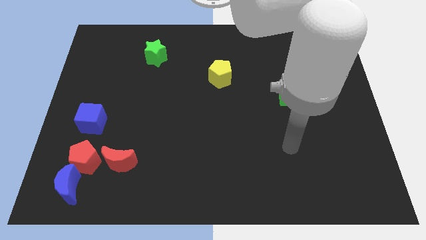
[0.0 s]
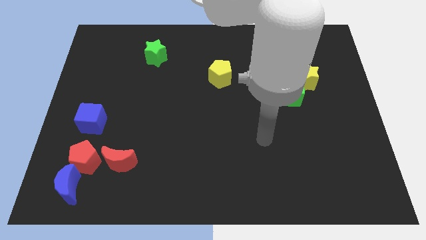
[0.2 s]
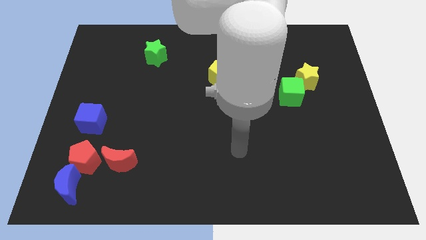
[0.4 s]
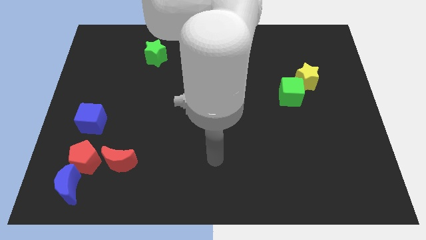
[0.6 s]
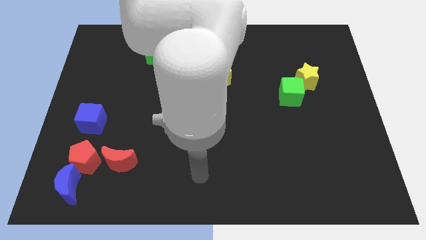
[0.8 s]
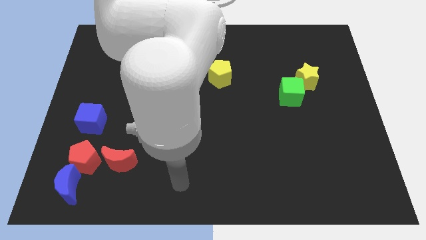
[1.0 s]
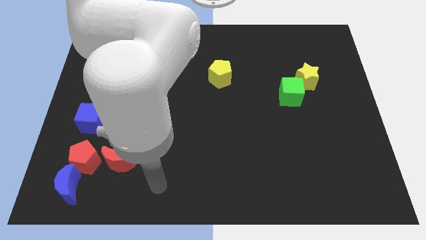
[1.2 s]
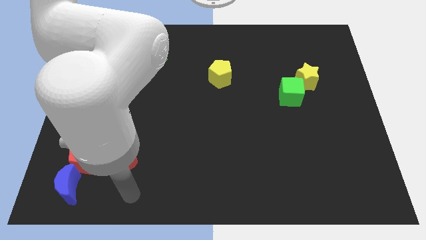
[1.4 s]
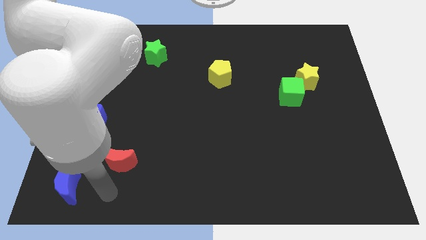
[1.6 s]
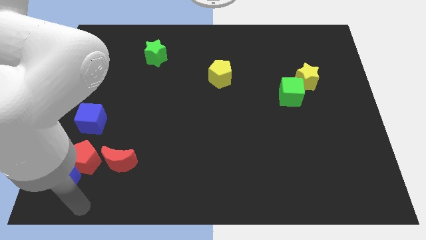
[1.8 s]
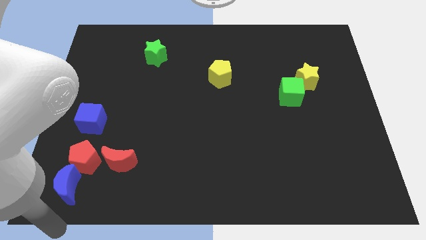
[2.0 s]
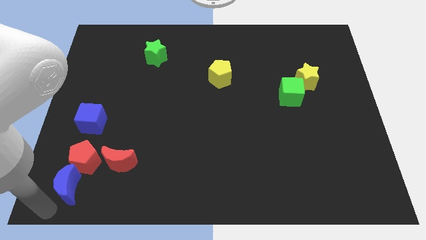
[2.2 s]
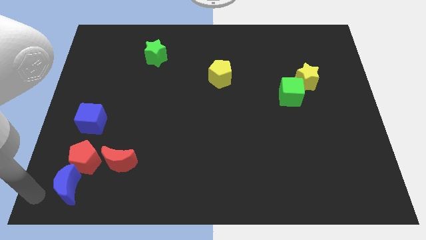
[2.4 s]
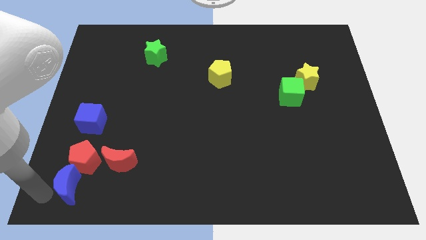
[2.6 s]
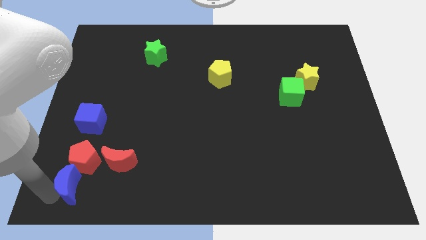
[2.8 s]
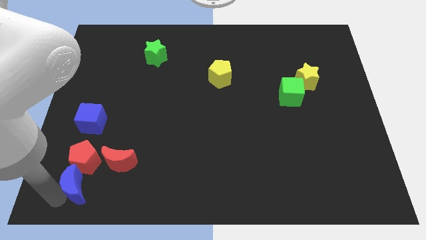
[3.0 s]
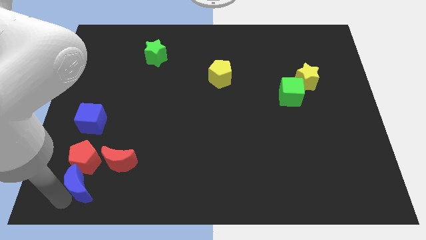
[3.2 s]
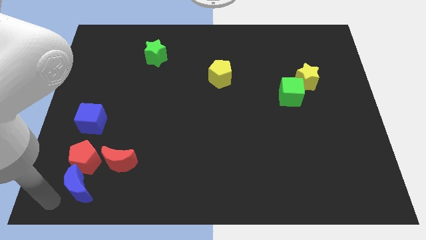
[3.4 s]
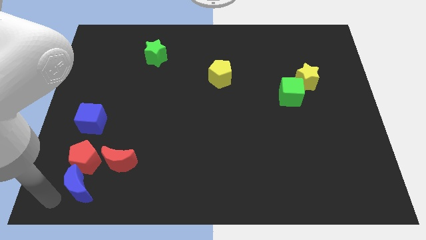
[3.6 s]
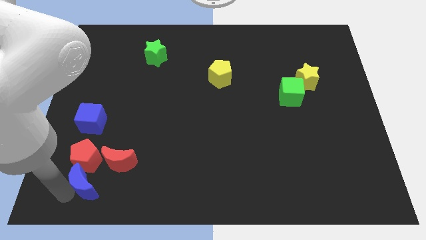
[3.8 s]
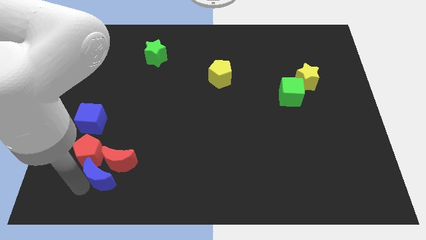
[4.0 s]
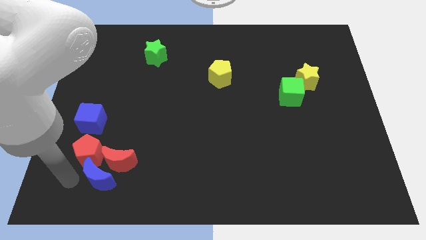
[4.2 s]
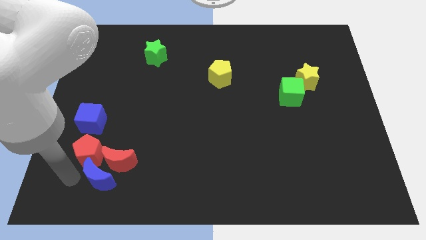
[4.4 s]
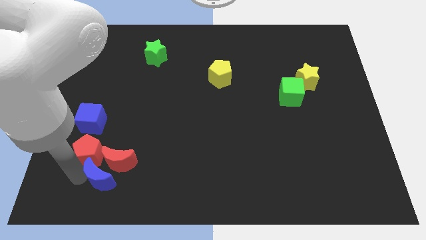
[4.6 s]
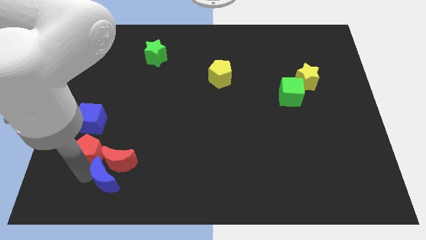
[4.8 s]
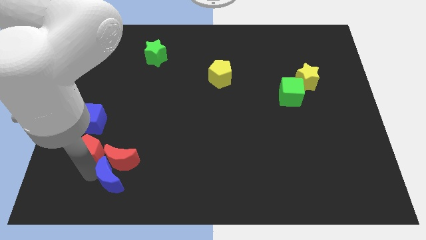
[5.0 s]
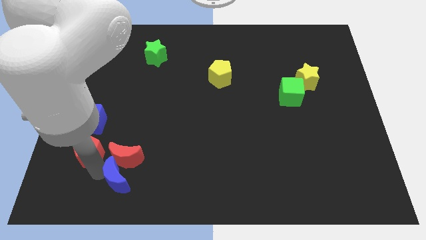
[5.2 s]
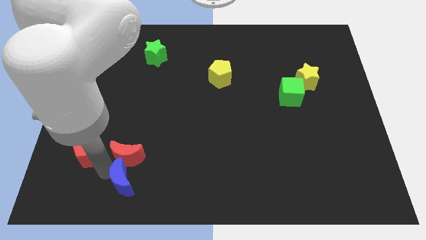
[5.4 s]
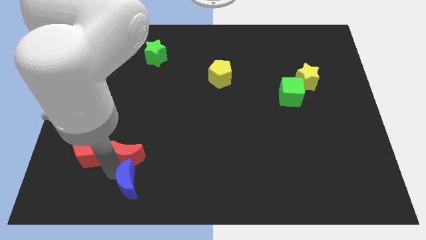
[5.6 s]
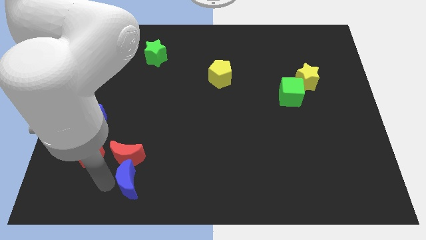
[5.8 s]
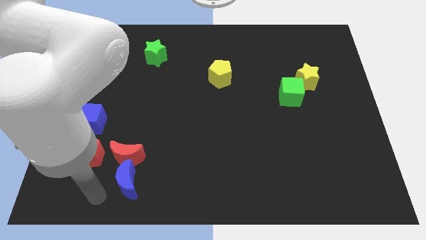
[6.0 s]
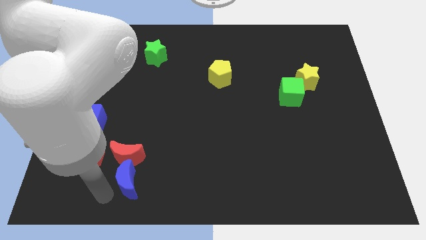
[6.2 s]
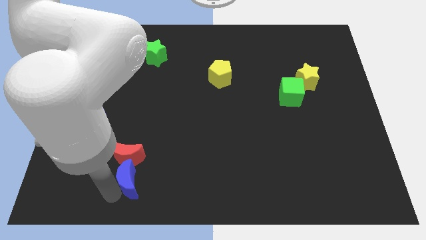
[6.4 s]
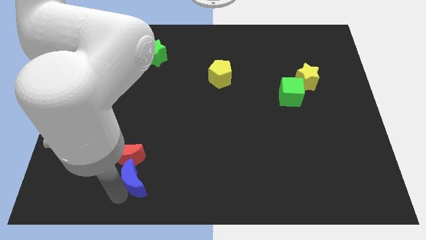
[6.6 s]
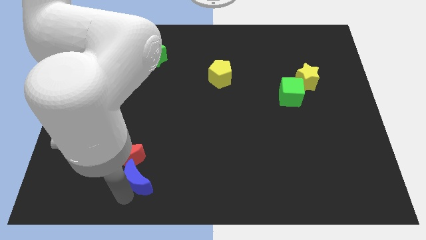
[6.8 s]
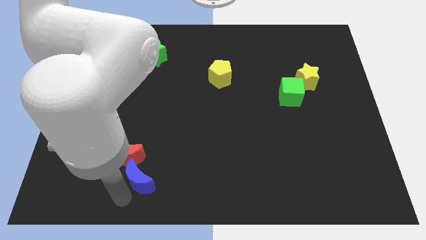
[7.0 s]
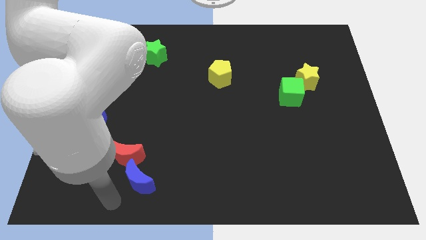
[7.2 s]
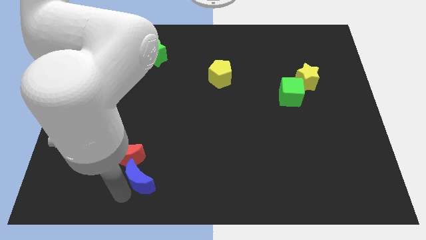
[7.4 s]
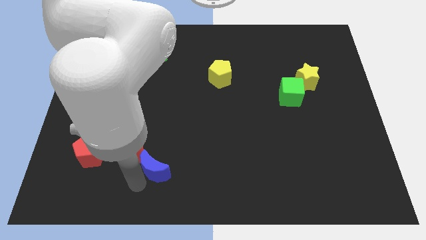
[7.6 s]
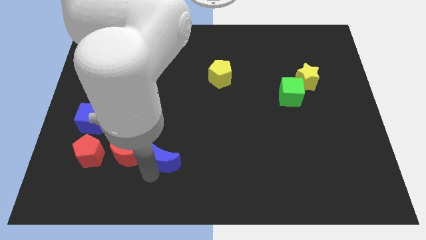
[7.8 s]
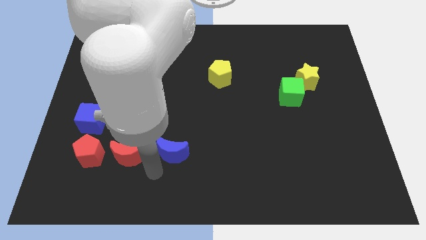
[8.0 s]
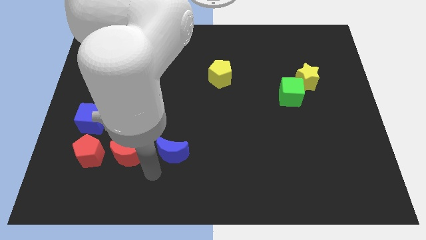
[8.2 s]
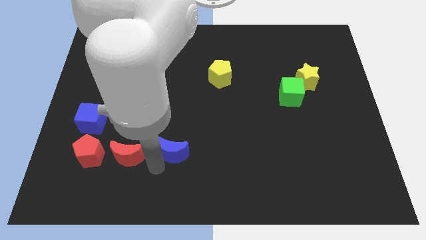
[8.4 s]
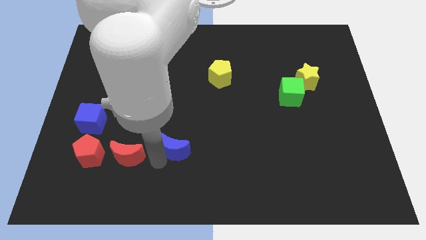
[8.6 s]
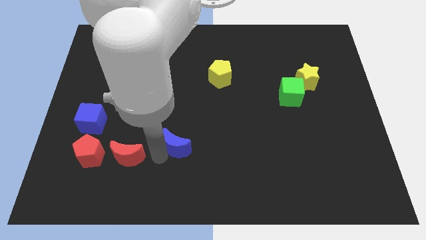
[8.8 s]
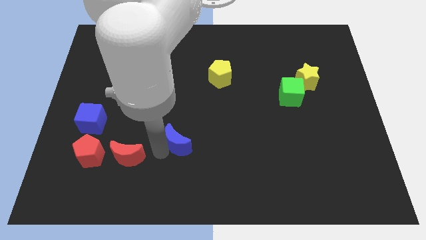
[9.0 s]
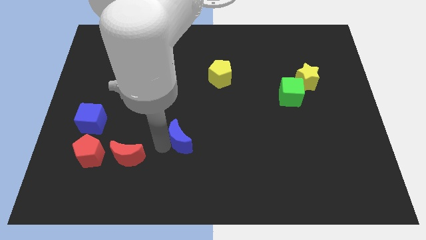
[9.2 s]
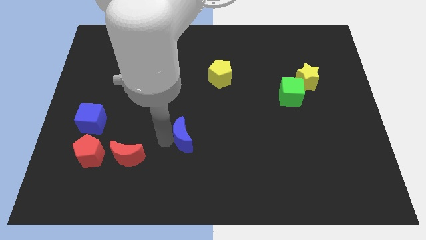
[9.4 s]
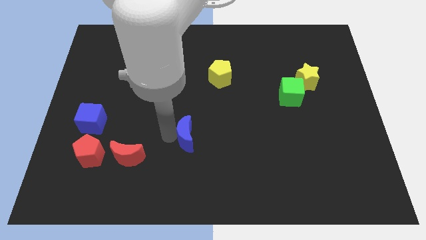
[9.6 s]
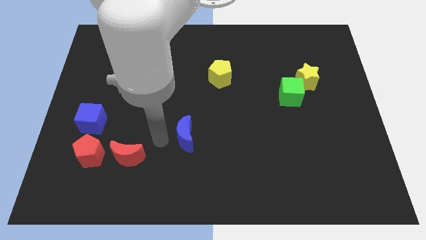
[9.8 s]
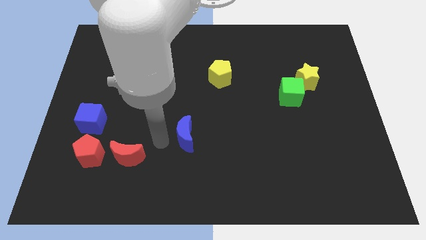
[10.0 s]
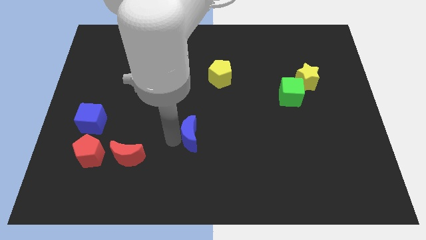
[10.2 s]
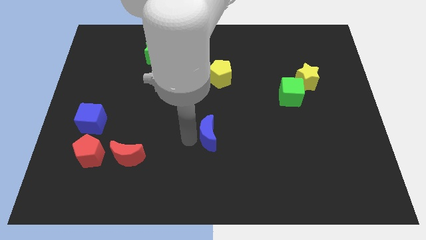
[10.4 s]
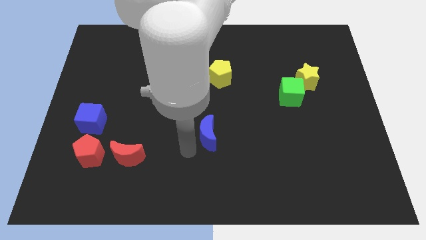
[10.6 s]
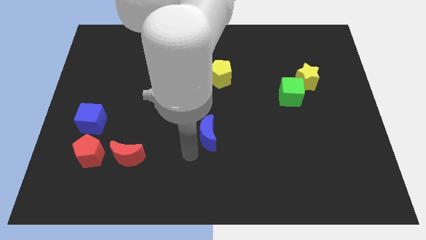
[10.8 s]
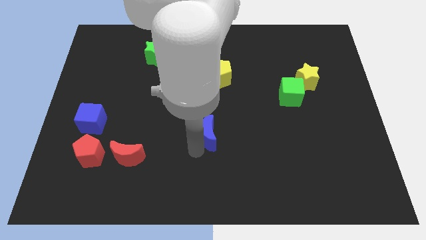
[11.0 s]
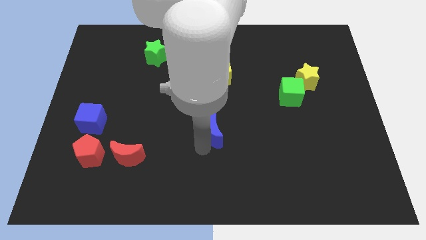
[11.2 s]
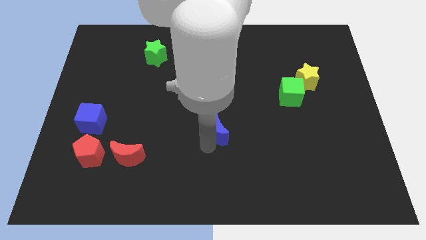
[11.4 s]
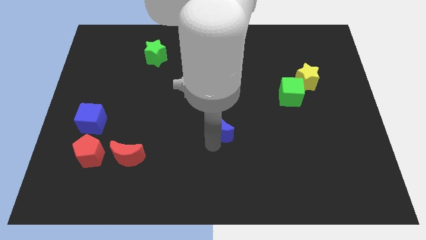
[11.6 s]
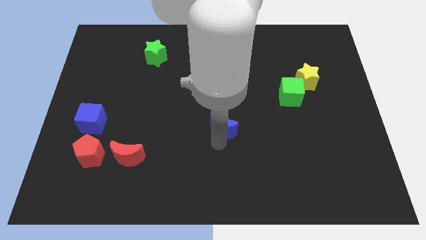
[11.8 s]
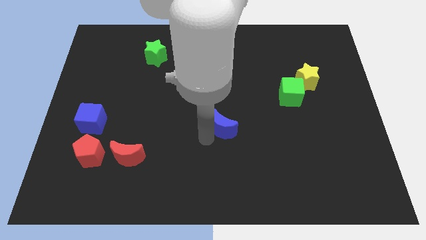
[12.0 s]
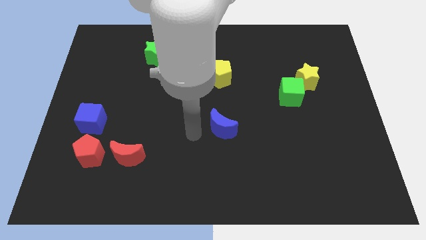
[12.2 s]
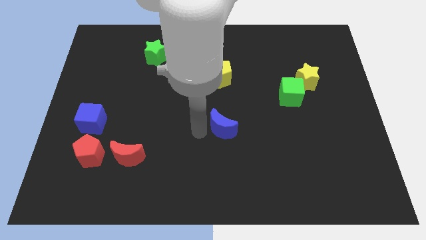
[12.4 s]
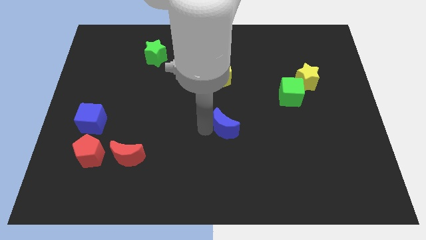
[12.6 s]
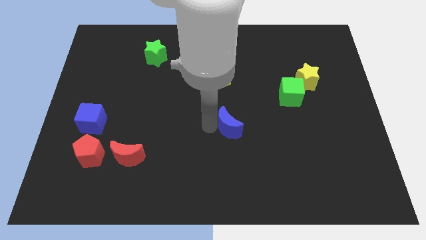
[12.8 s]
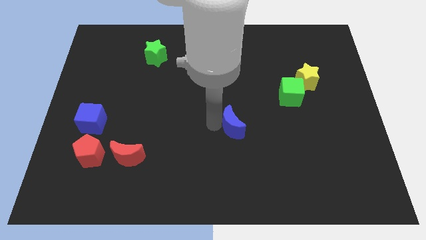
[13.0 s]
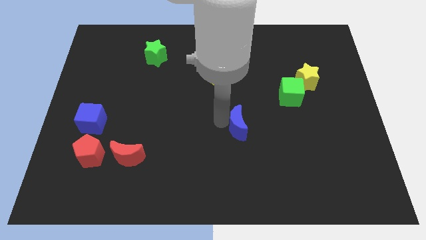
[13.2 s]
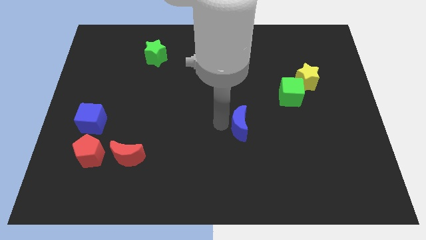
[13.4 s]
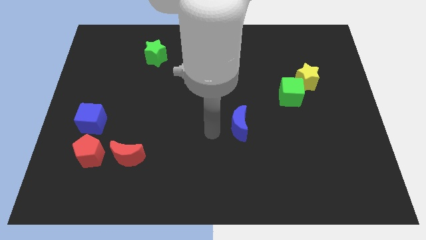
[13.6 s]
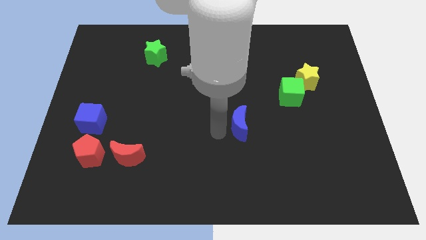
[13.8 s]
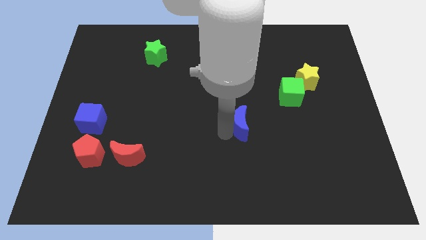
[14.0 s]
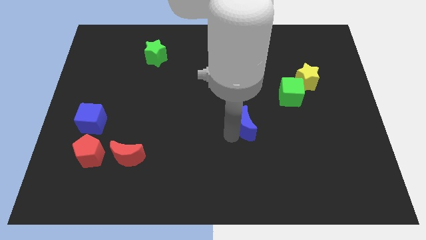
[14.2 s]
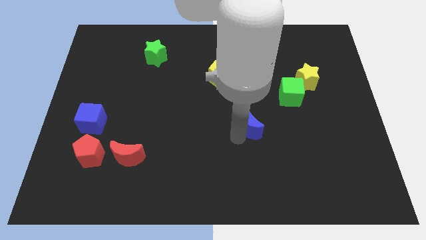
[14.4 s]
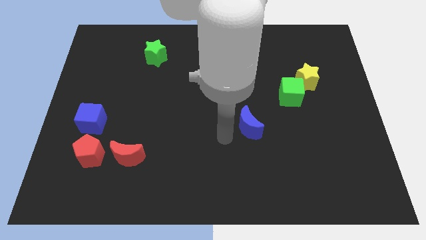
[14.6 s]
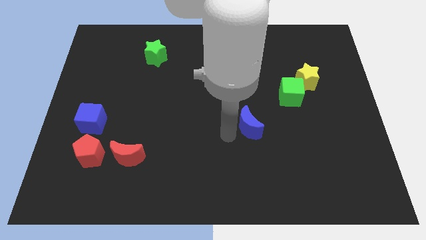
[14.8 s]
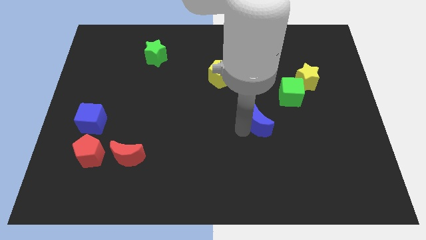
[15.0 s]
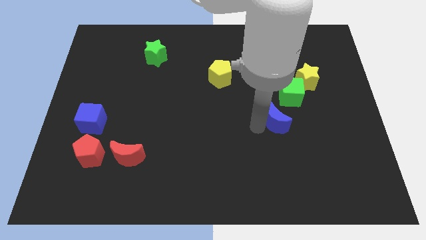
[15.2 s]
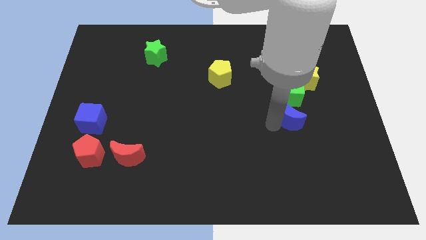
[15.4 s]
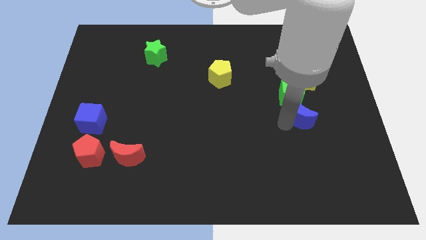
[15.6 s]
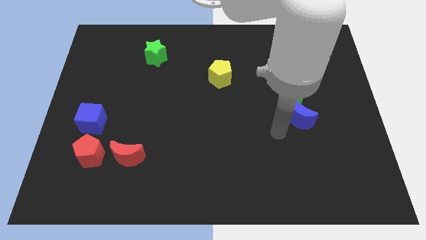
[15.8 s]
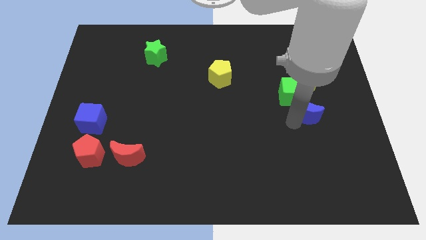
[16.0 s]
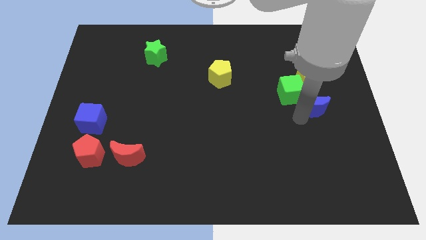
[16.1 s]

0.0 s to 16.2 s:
move the blue moon right of the green cube
